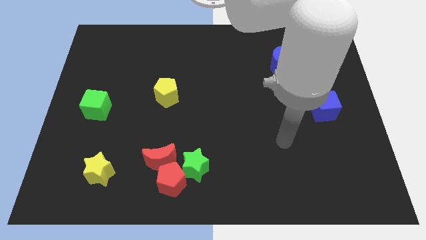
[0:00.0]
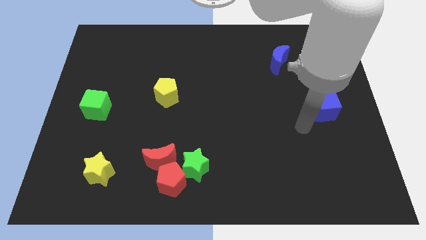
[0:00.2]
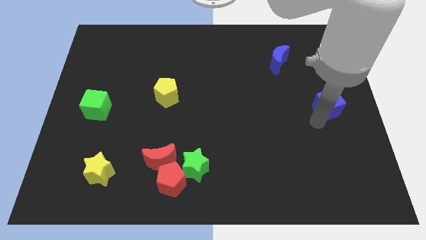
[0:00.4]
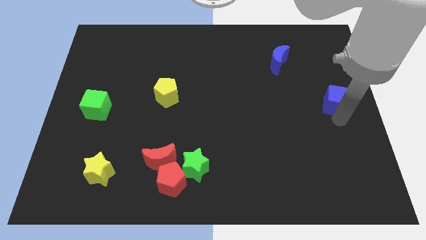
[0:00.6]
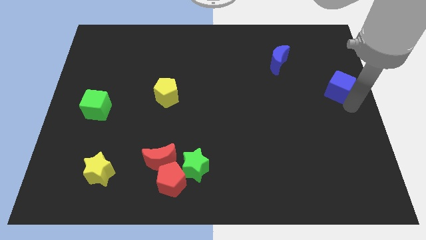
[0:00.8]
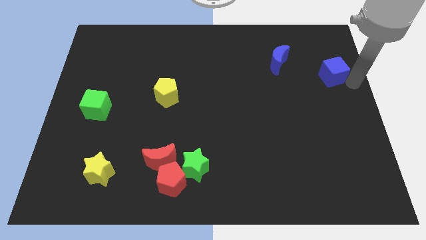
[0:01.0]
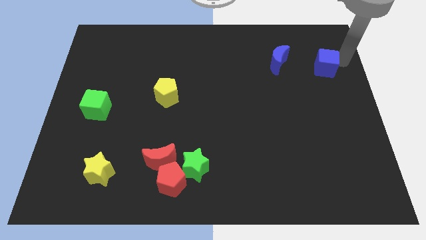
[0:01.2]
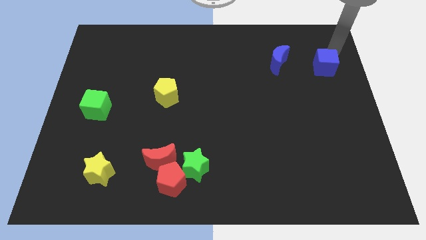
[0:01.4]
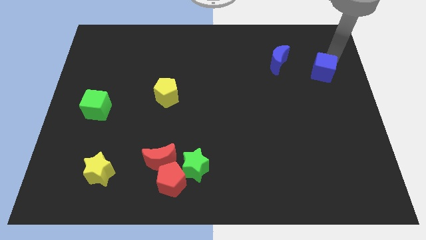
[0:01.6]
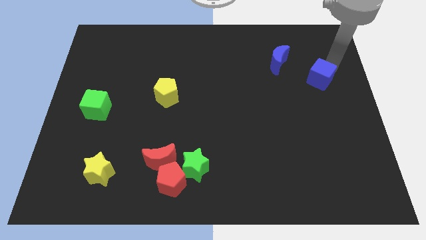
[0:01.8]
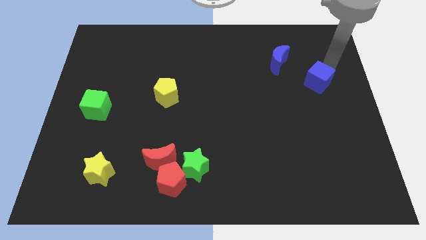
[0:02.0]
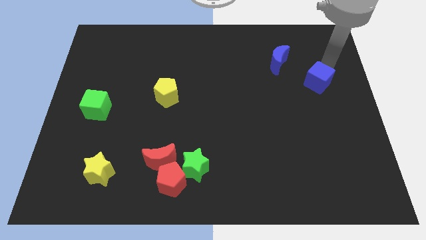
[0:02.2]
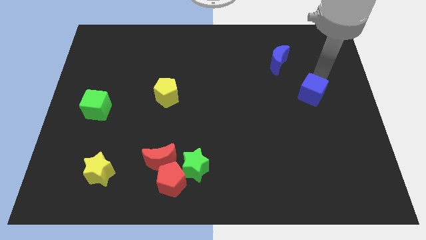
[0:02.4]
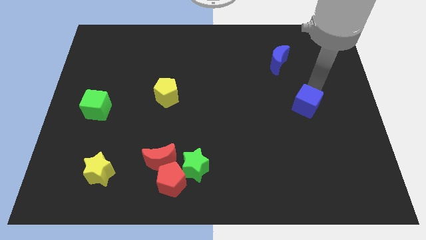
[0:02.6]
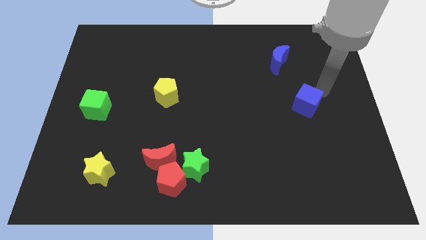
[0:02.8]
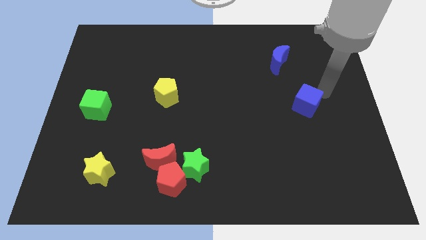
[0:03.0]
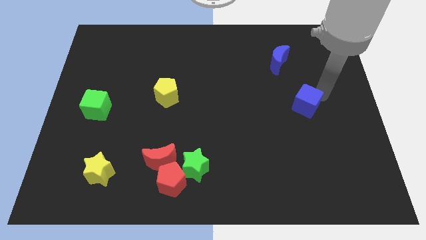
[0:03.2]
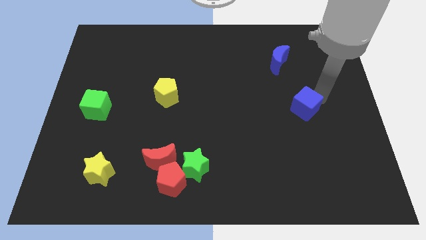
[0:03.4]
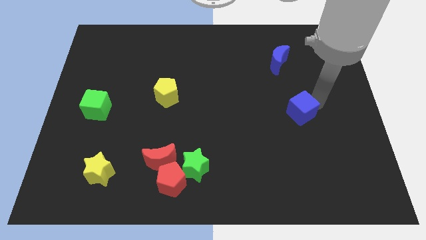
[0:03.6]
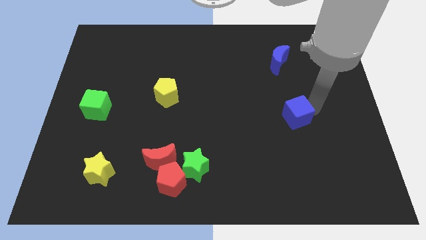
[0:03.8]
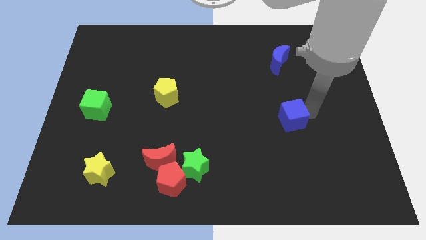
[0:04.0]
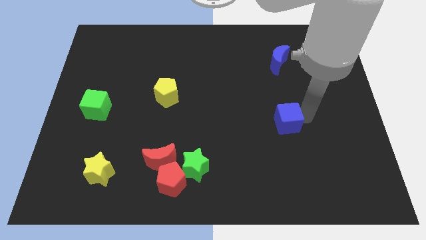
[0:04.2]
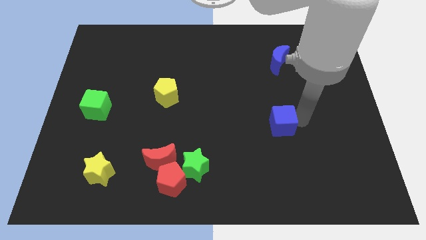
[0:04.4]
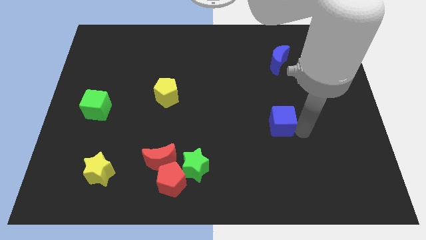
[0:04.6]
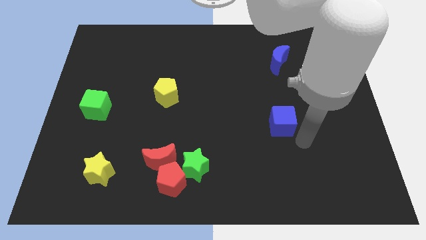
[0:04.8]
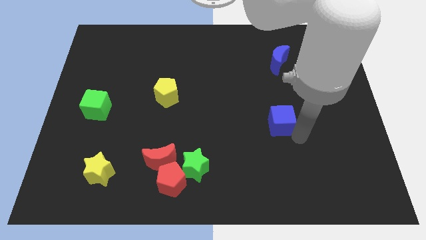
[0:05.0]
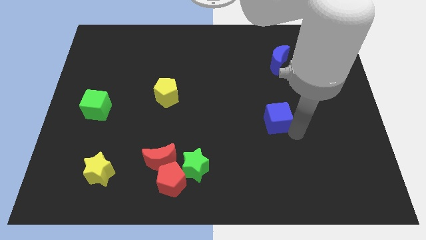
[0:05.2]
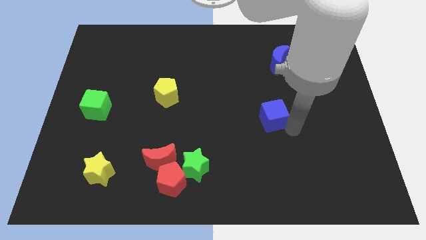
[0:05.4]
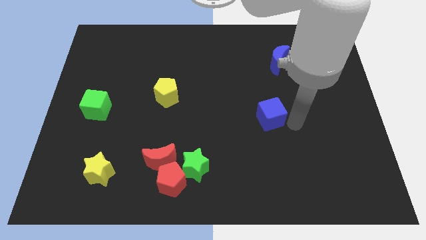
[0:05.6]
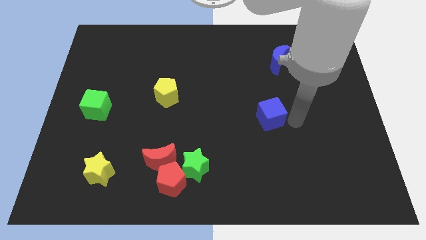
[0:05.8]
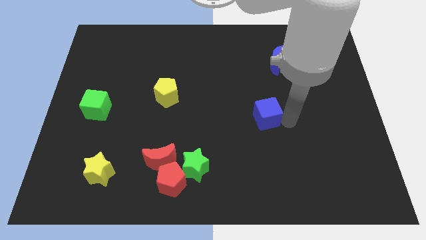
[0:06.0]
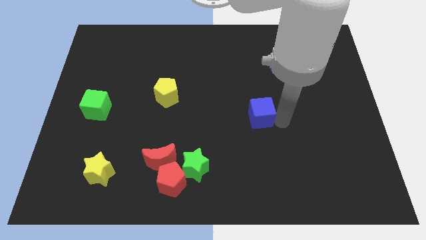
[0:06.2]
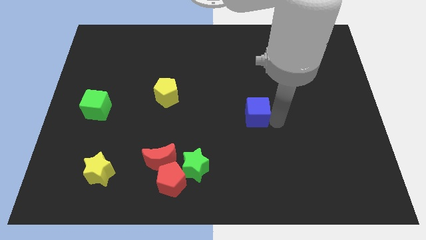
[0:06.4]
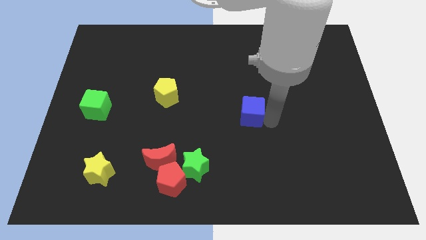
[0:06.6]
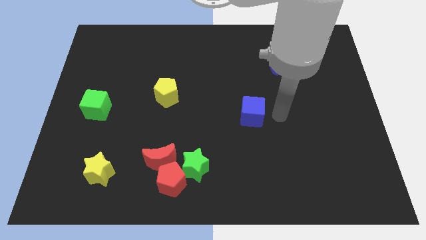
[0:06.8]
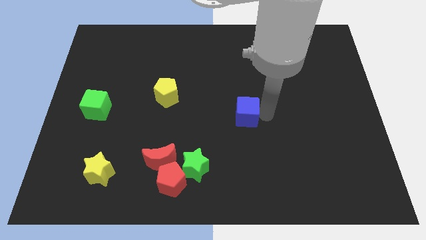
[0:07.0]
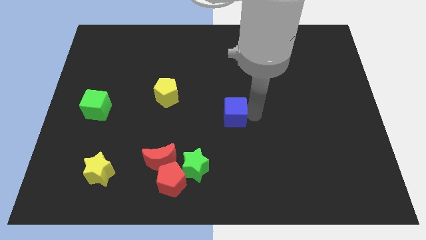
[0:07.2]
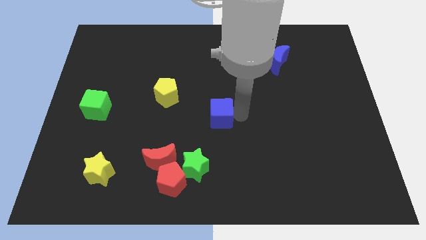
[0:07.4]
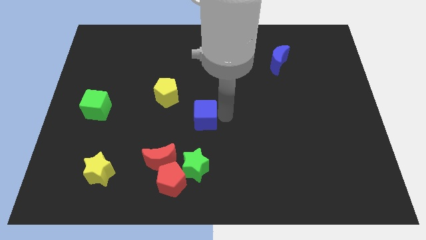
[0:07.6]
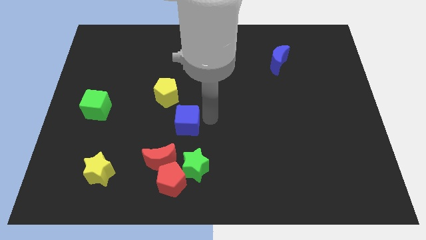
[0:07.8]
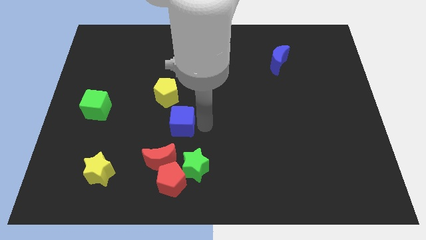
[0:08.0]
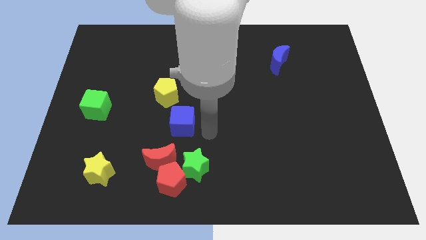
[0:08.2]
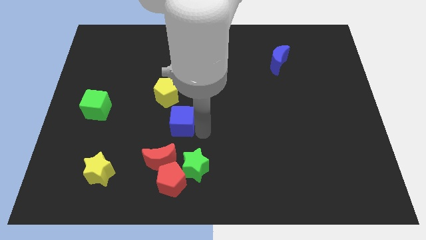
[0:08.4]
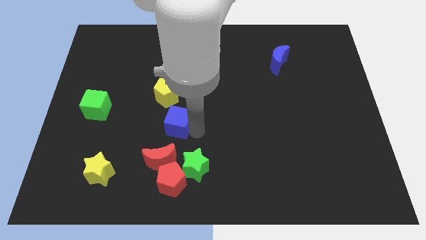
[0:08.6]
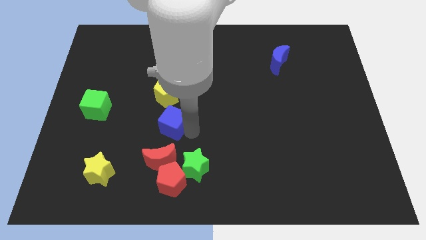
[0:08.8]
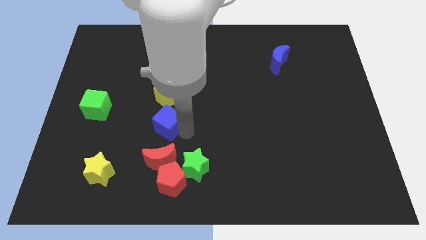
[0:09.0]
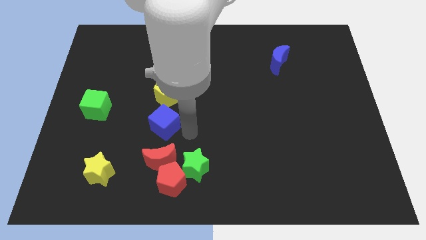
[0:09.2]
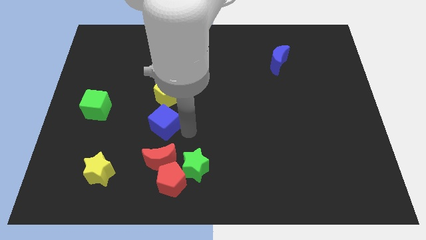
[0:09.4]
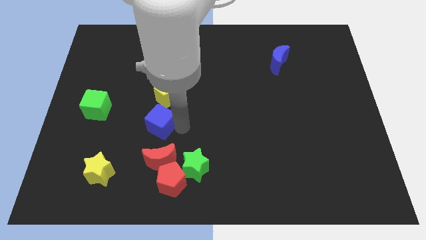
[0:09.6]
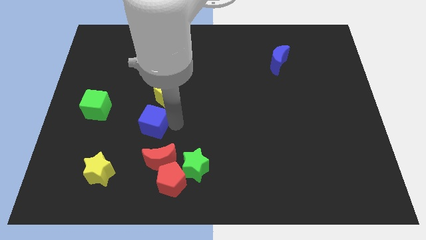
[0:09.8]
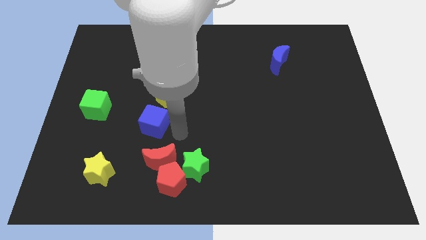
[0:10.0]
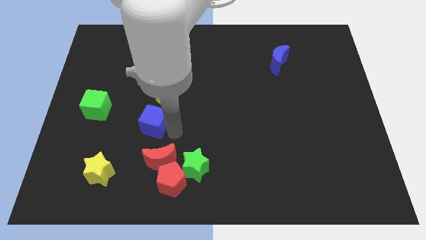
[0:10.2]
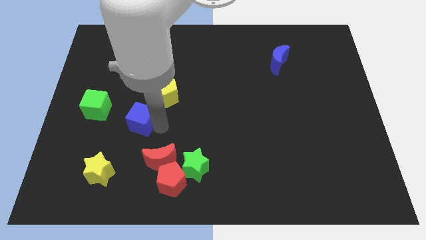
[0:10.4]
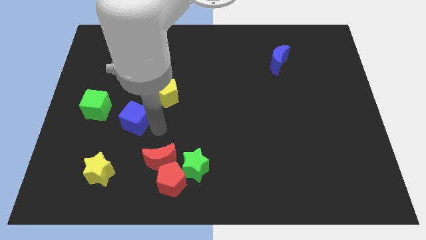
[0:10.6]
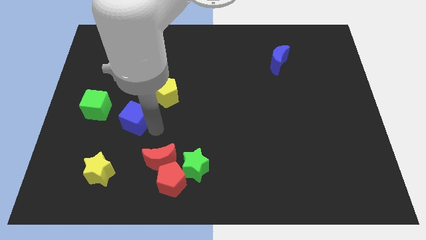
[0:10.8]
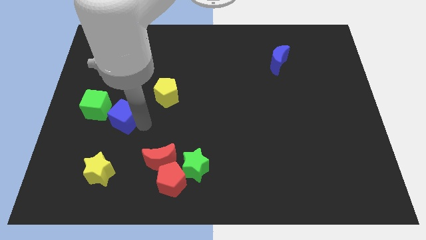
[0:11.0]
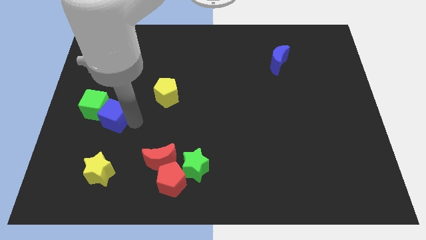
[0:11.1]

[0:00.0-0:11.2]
put the blue cube close to the green cube

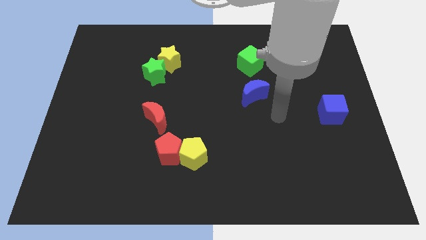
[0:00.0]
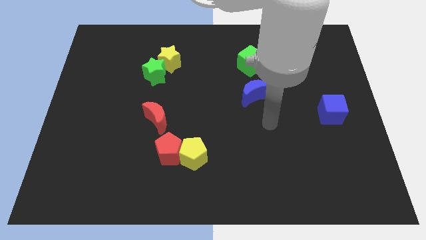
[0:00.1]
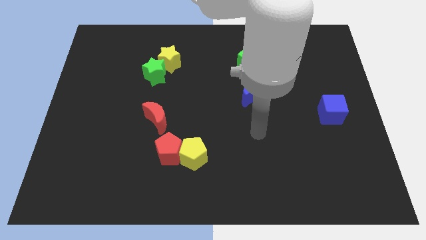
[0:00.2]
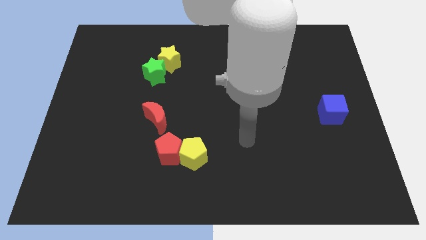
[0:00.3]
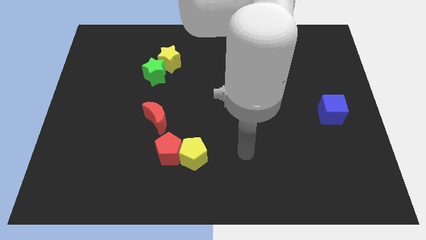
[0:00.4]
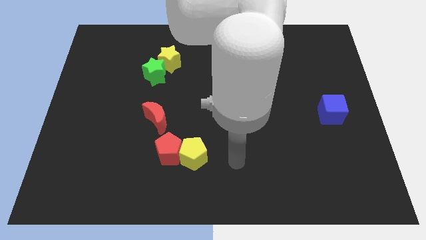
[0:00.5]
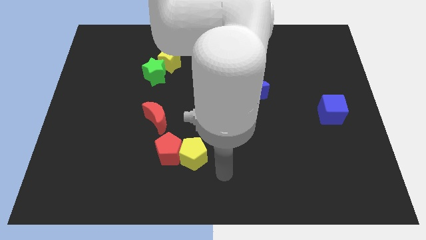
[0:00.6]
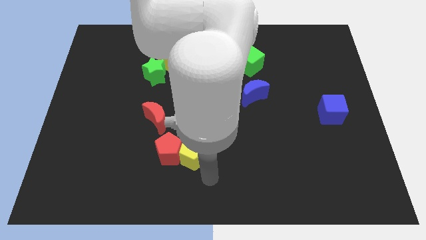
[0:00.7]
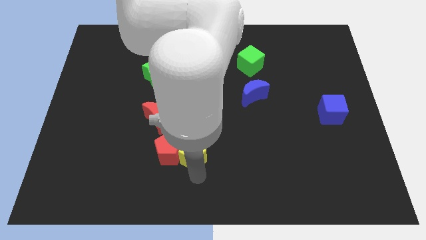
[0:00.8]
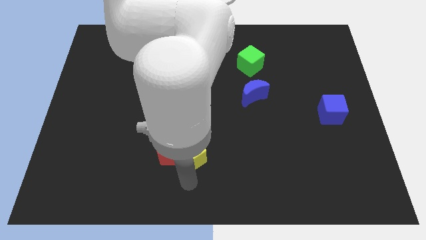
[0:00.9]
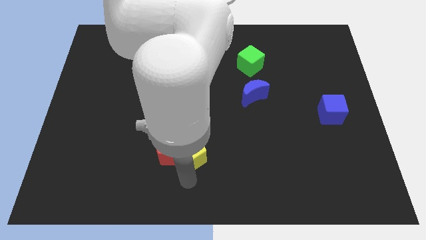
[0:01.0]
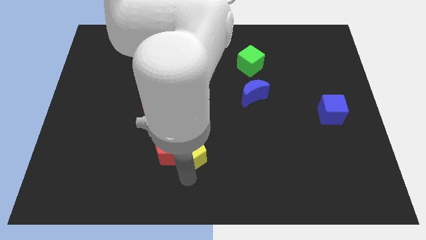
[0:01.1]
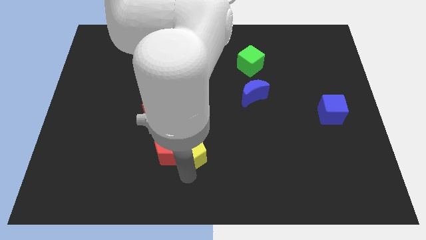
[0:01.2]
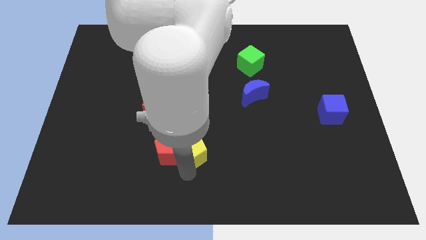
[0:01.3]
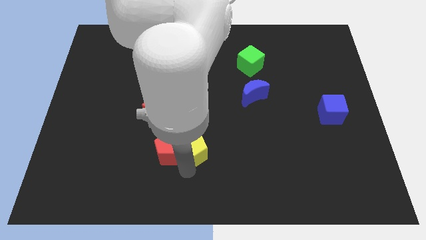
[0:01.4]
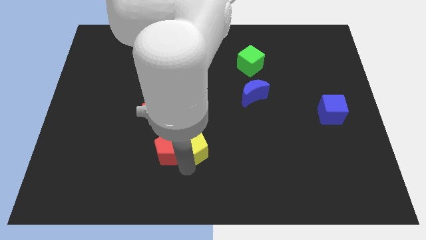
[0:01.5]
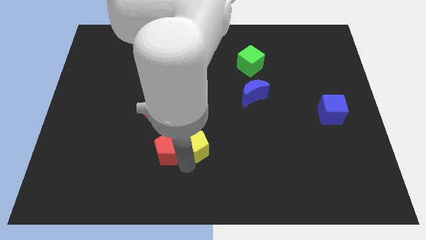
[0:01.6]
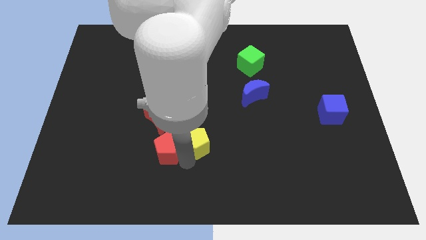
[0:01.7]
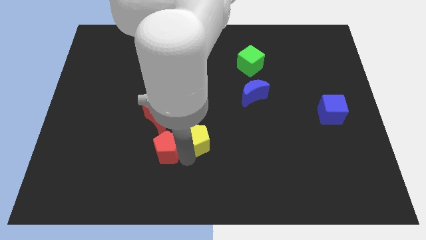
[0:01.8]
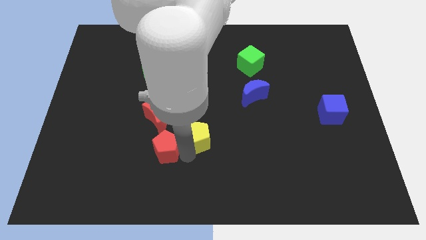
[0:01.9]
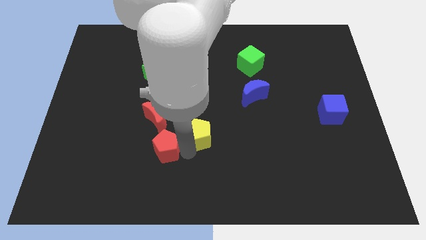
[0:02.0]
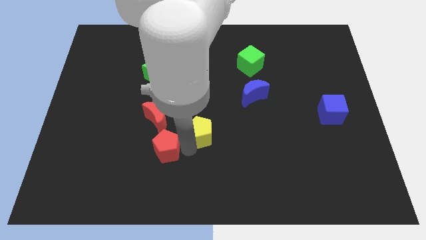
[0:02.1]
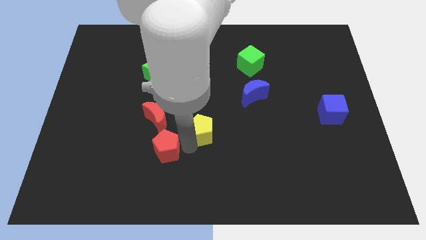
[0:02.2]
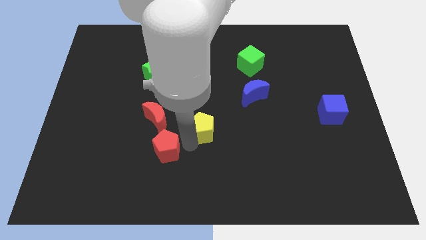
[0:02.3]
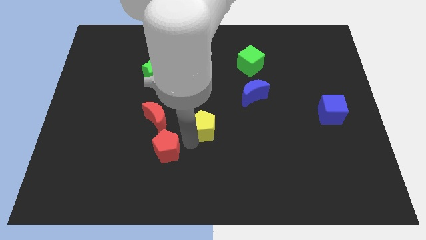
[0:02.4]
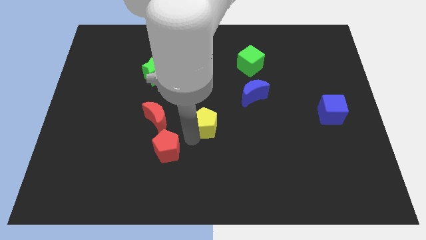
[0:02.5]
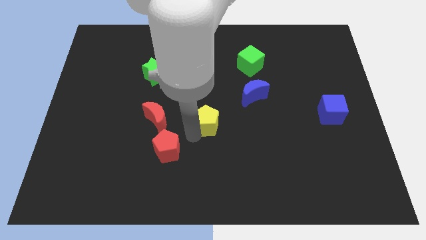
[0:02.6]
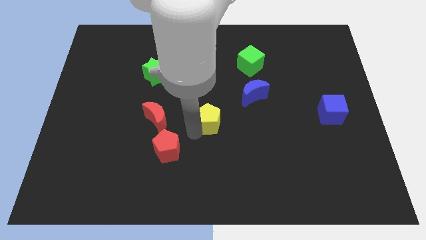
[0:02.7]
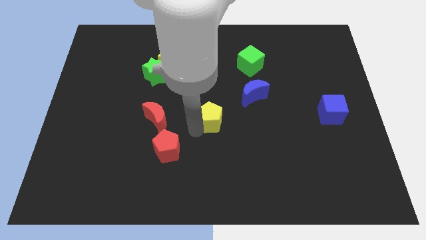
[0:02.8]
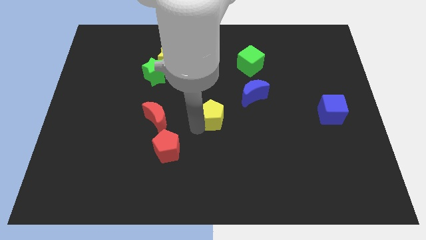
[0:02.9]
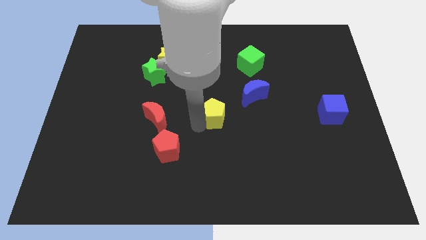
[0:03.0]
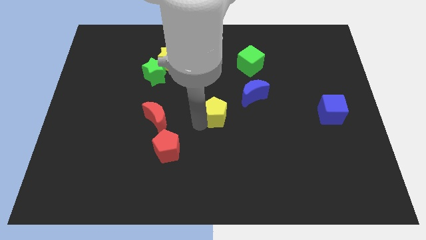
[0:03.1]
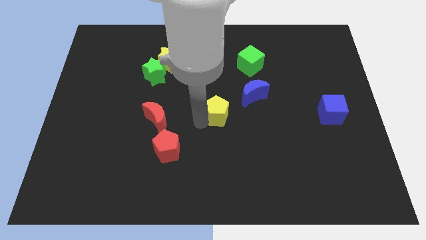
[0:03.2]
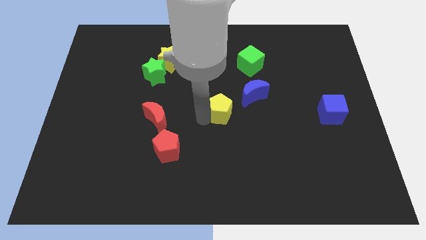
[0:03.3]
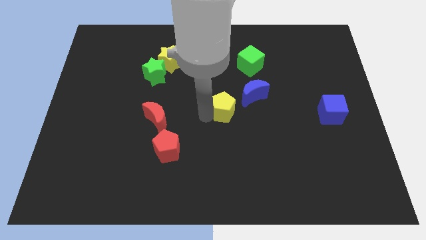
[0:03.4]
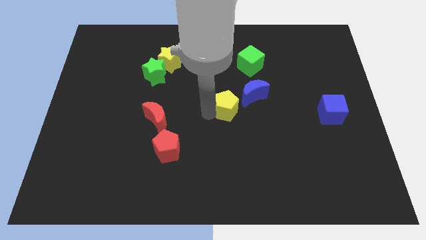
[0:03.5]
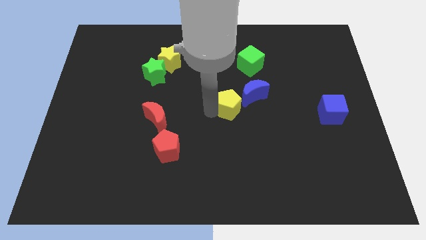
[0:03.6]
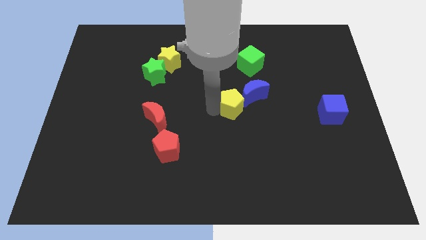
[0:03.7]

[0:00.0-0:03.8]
push the yellow pentagon next to the blue moon
